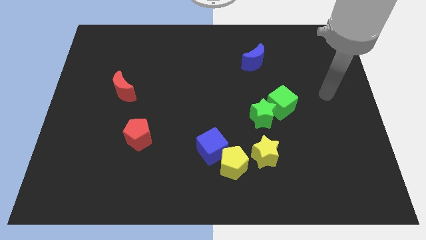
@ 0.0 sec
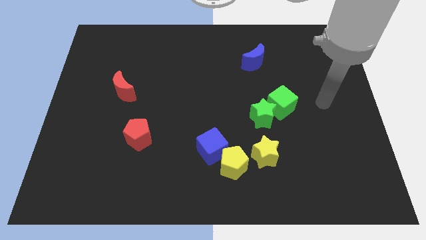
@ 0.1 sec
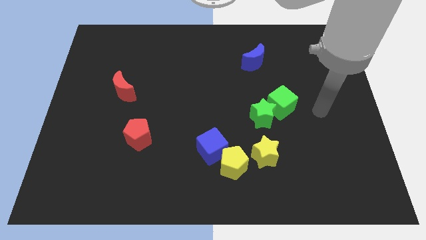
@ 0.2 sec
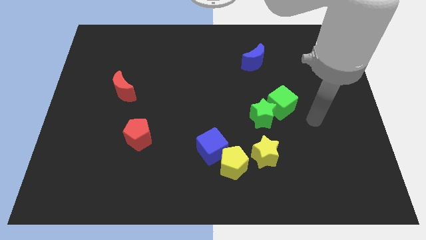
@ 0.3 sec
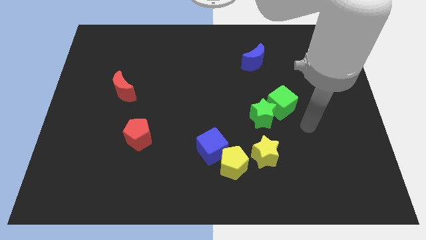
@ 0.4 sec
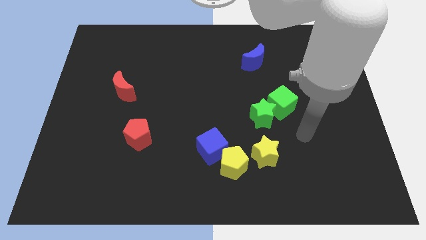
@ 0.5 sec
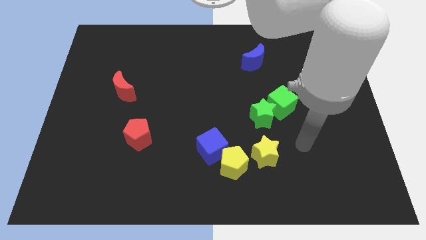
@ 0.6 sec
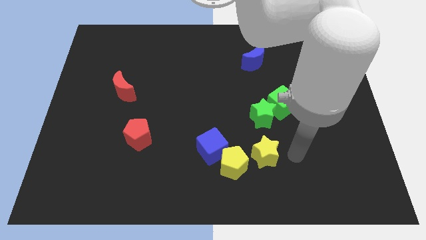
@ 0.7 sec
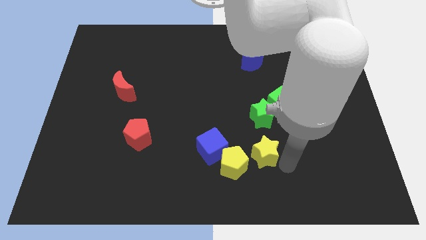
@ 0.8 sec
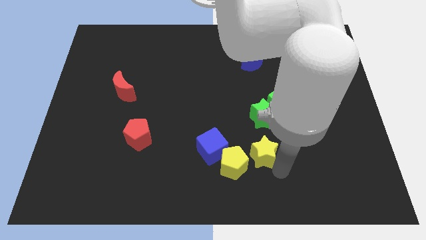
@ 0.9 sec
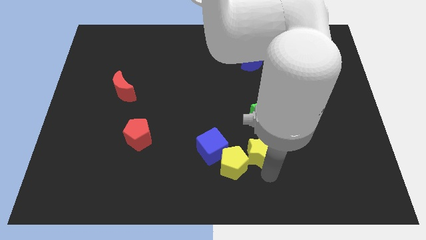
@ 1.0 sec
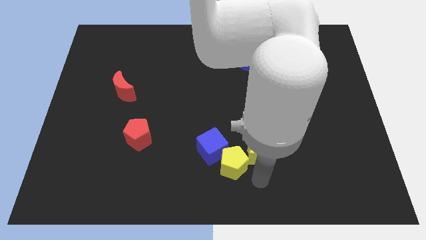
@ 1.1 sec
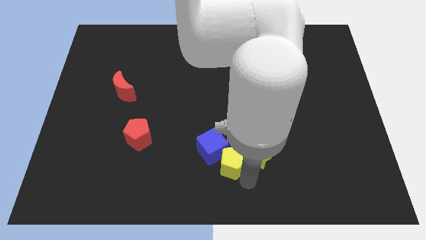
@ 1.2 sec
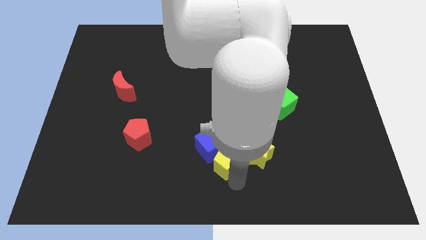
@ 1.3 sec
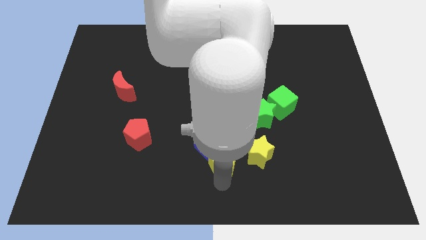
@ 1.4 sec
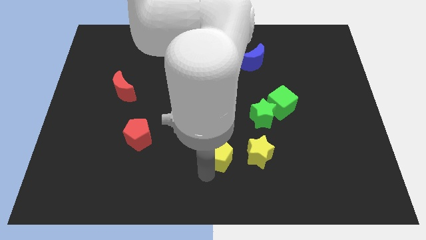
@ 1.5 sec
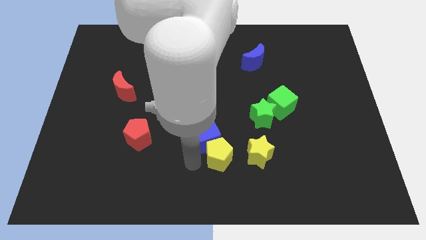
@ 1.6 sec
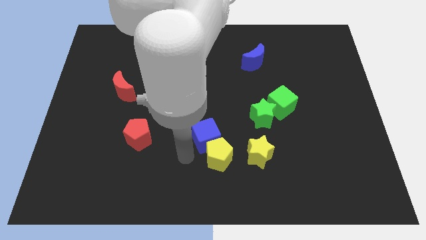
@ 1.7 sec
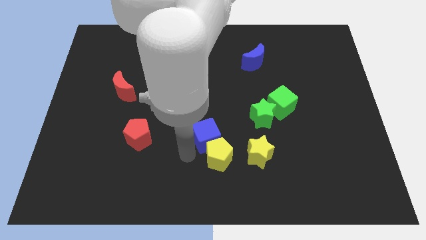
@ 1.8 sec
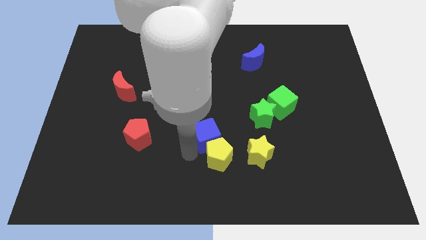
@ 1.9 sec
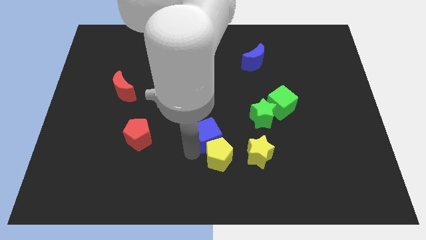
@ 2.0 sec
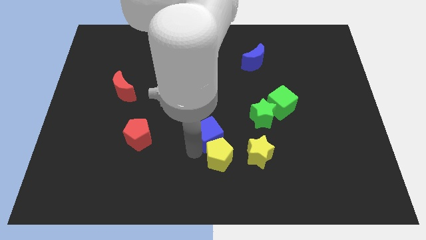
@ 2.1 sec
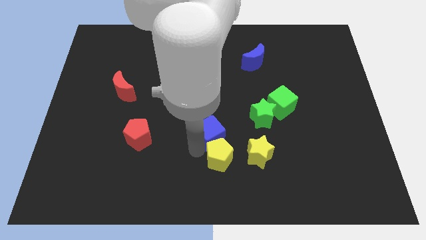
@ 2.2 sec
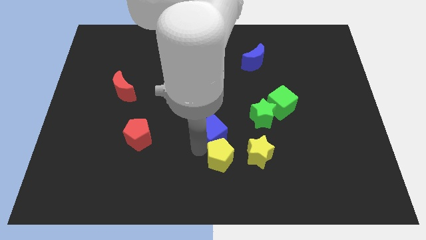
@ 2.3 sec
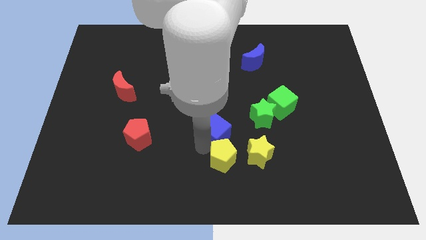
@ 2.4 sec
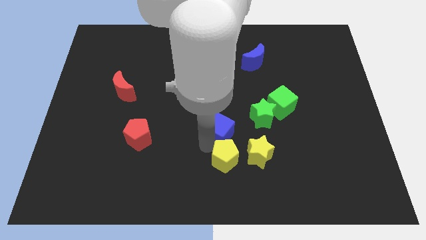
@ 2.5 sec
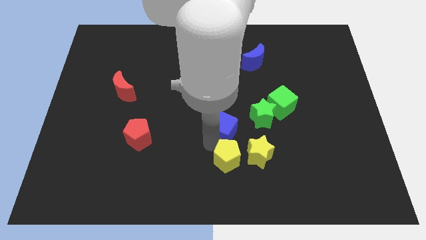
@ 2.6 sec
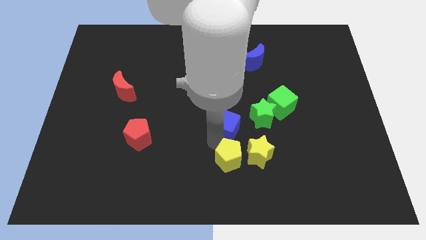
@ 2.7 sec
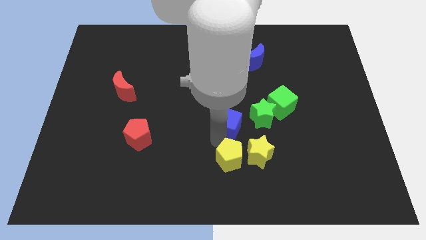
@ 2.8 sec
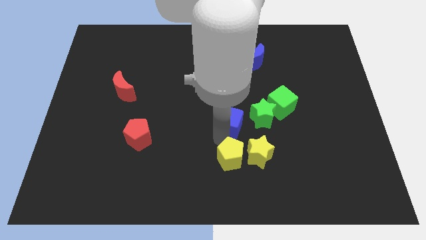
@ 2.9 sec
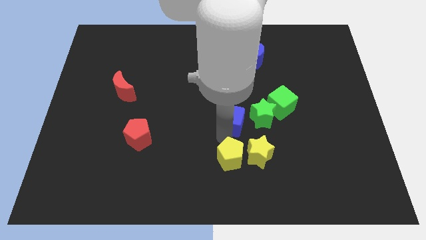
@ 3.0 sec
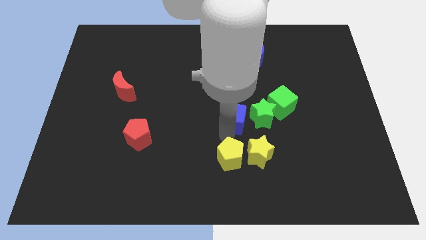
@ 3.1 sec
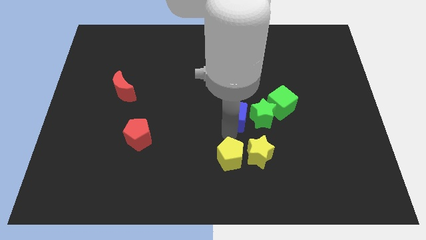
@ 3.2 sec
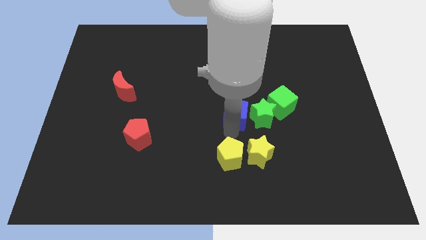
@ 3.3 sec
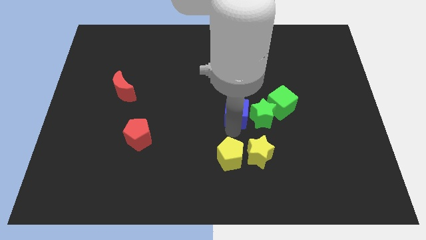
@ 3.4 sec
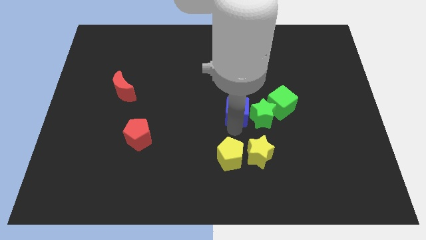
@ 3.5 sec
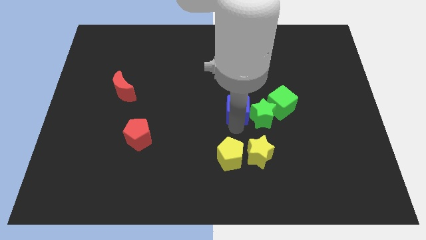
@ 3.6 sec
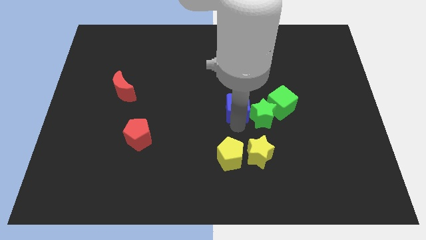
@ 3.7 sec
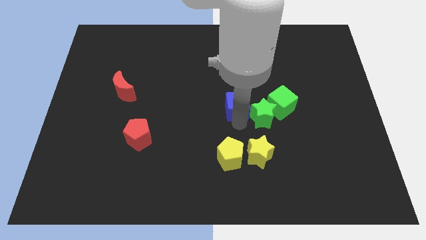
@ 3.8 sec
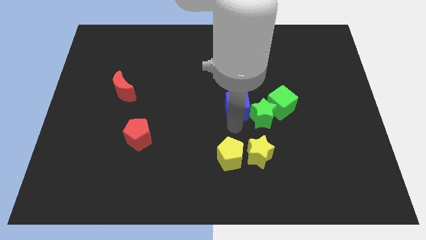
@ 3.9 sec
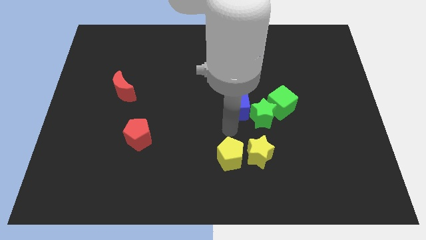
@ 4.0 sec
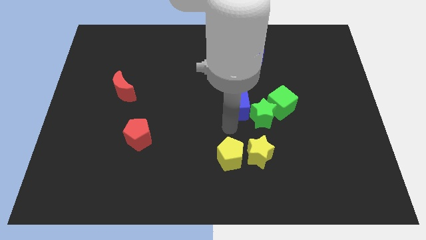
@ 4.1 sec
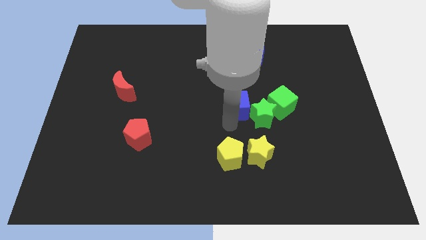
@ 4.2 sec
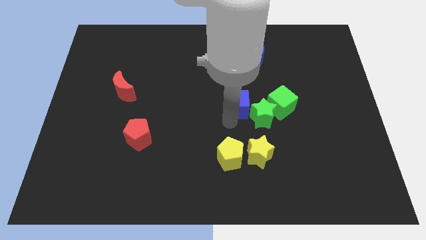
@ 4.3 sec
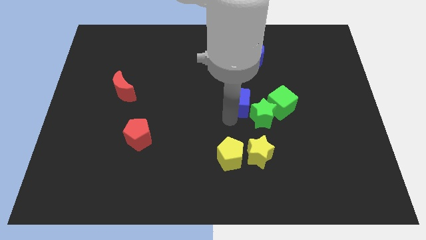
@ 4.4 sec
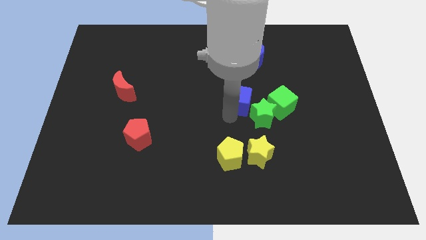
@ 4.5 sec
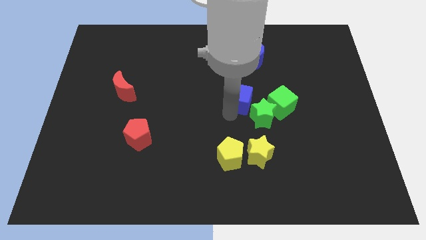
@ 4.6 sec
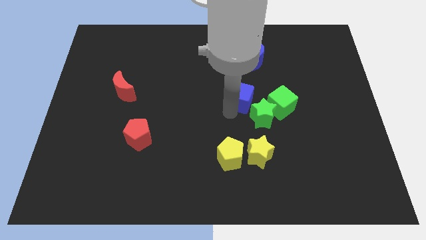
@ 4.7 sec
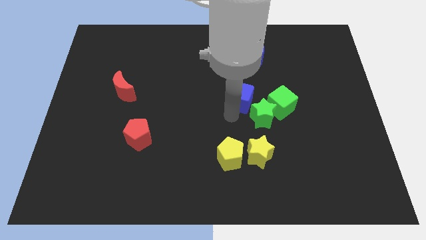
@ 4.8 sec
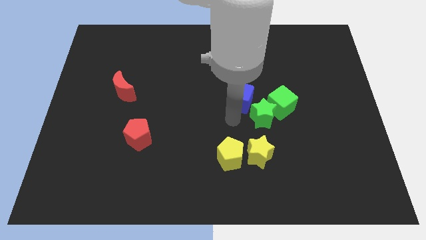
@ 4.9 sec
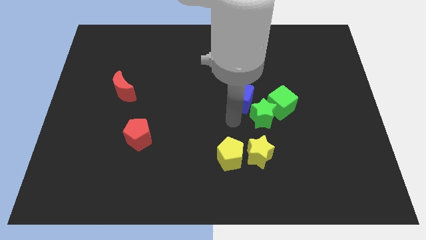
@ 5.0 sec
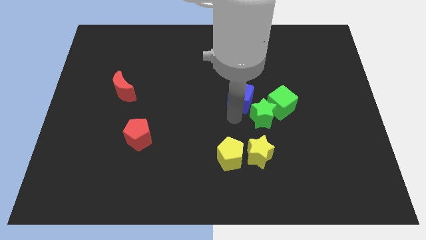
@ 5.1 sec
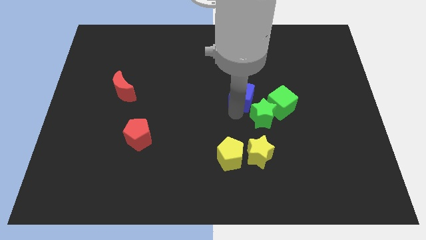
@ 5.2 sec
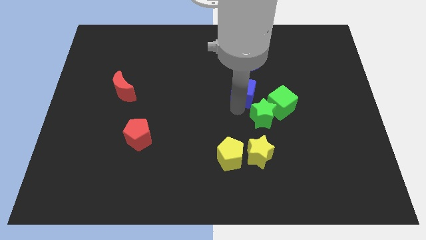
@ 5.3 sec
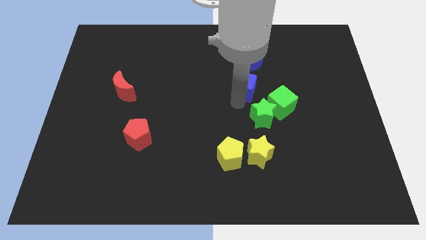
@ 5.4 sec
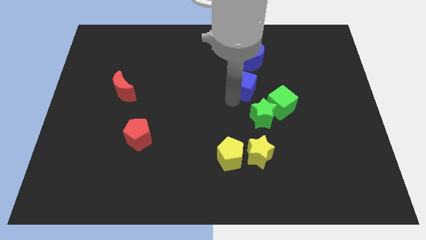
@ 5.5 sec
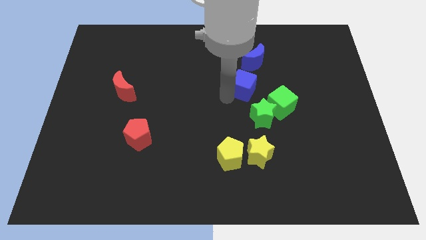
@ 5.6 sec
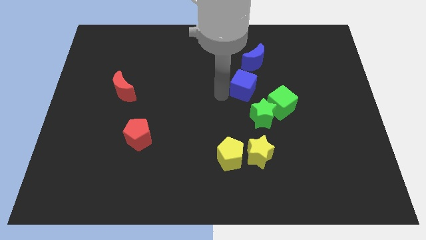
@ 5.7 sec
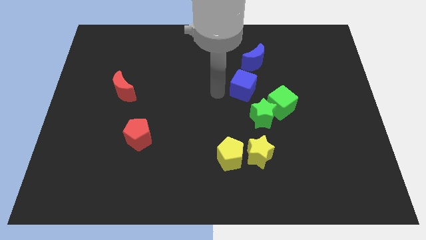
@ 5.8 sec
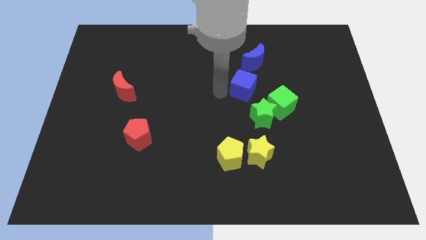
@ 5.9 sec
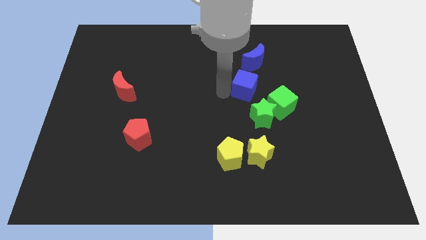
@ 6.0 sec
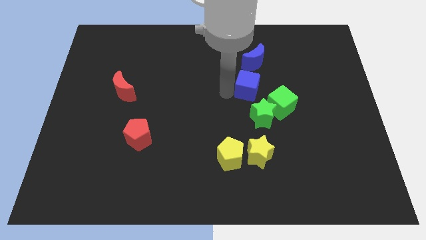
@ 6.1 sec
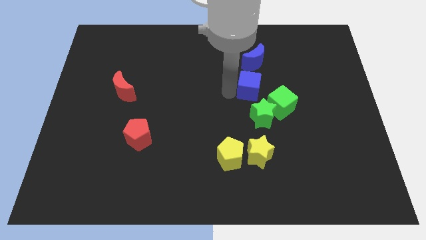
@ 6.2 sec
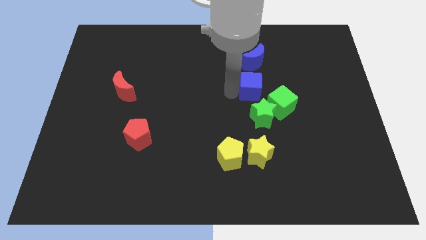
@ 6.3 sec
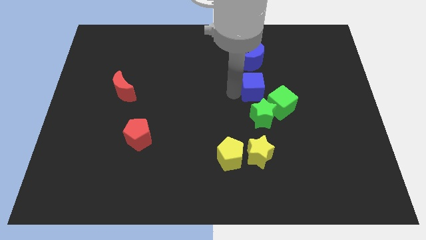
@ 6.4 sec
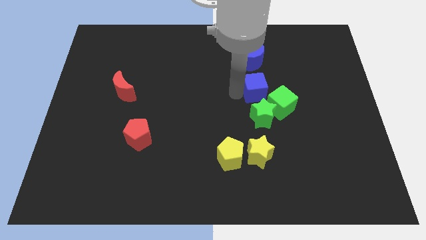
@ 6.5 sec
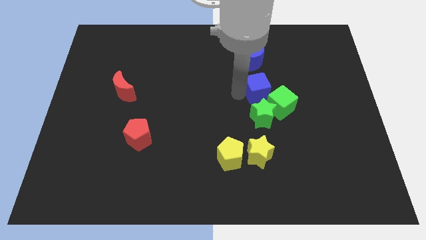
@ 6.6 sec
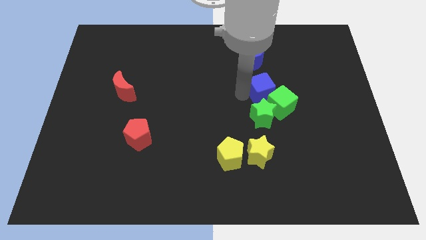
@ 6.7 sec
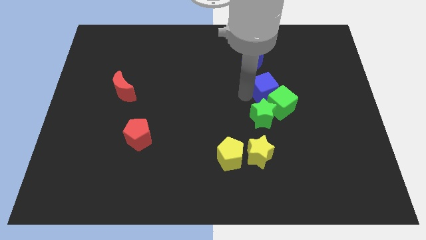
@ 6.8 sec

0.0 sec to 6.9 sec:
move the blue cube upwards and to the right

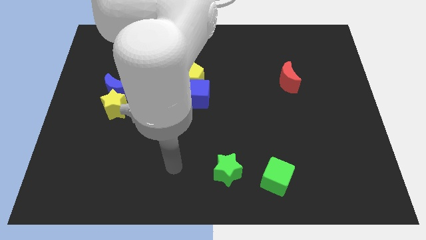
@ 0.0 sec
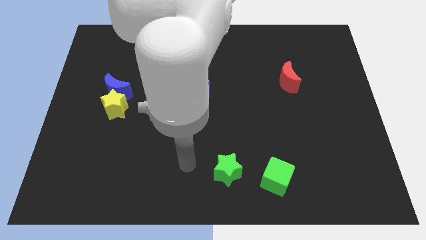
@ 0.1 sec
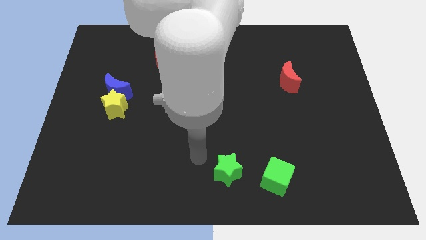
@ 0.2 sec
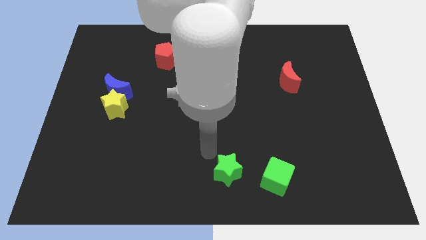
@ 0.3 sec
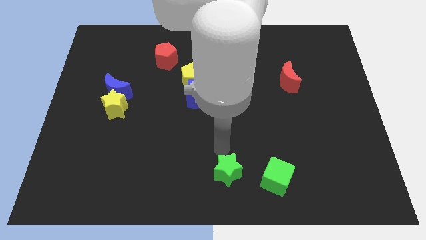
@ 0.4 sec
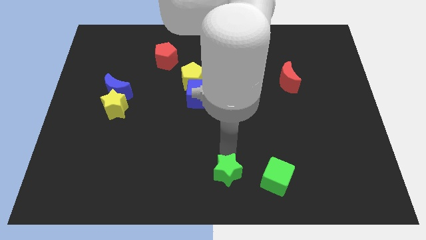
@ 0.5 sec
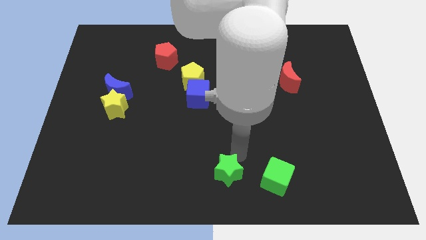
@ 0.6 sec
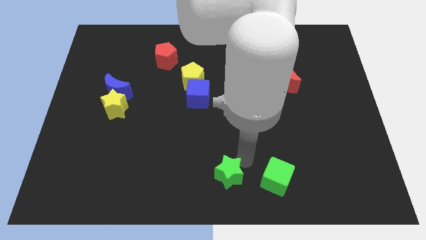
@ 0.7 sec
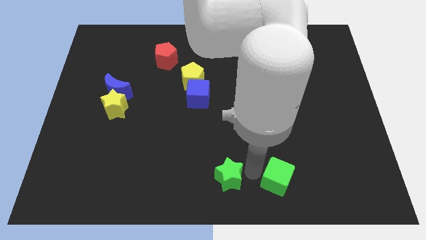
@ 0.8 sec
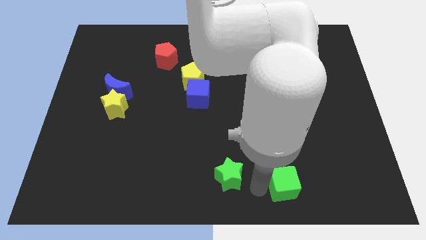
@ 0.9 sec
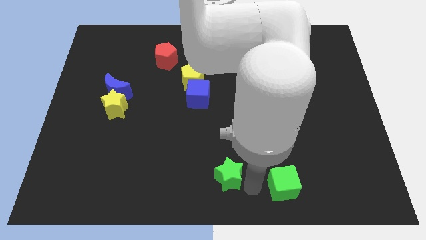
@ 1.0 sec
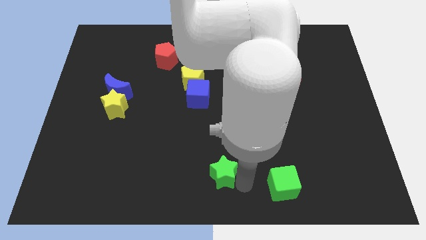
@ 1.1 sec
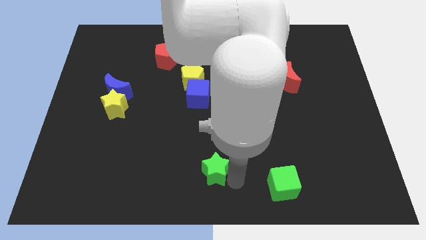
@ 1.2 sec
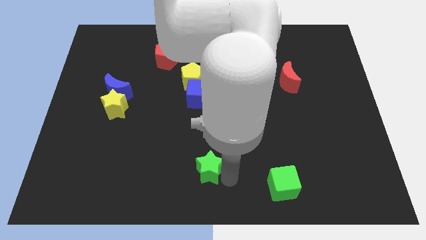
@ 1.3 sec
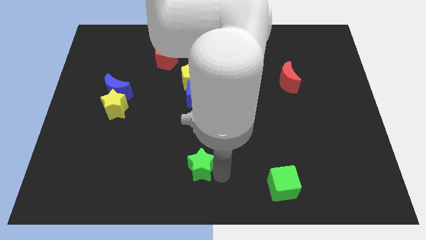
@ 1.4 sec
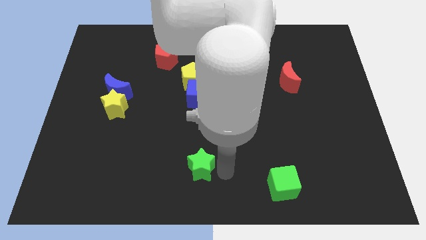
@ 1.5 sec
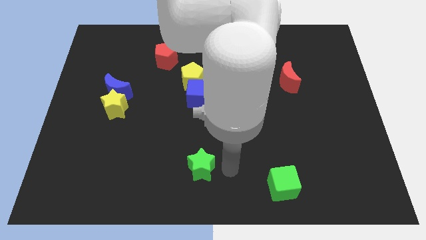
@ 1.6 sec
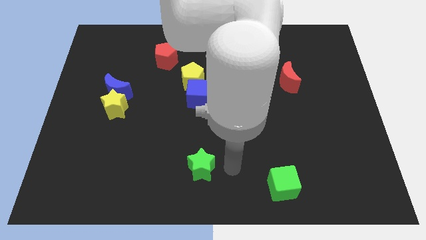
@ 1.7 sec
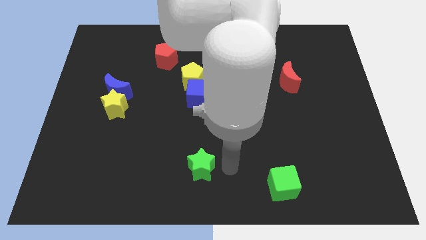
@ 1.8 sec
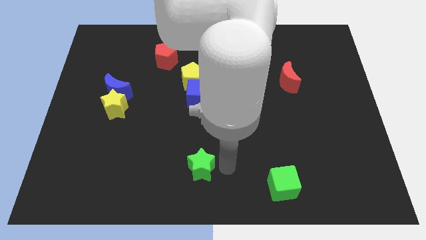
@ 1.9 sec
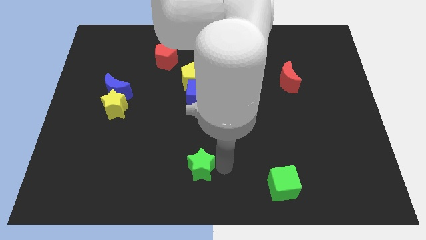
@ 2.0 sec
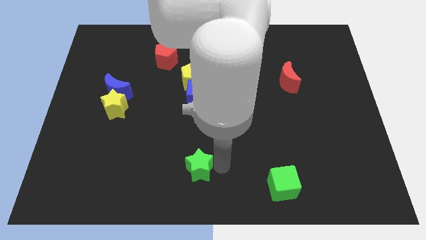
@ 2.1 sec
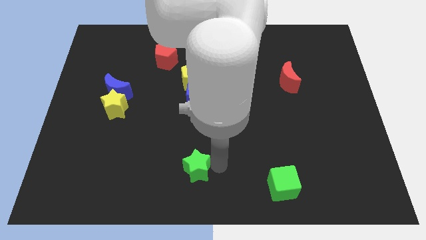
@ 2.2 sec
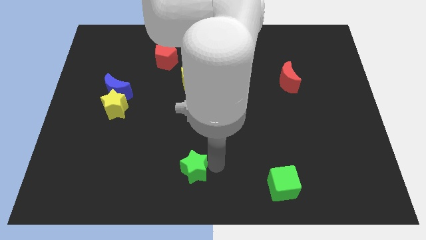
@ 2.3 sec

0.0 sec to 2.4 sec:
move the green star a bit to the left
